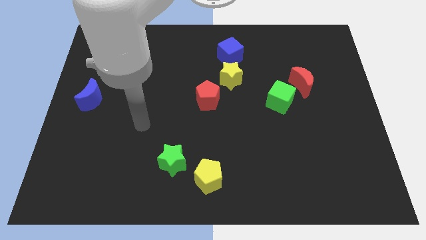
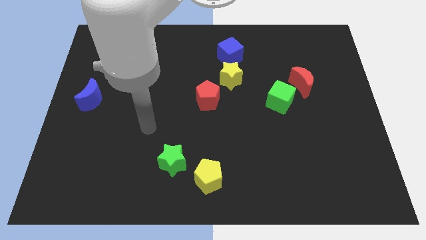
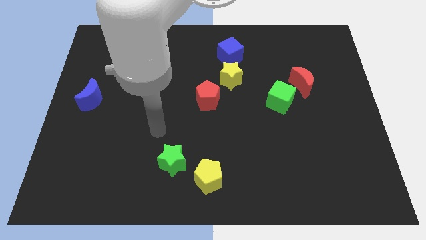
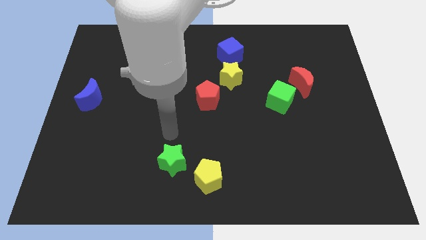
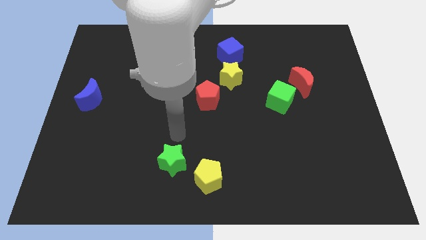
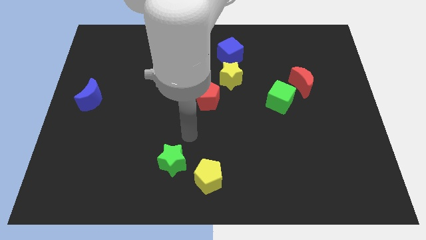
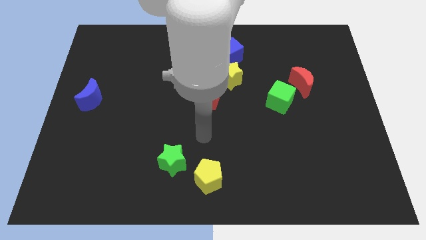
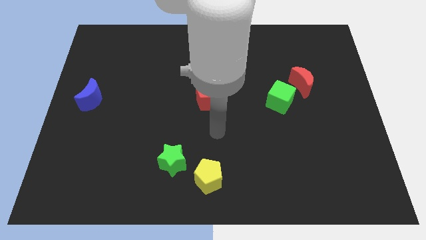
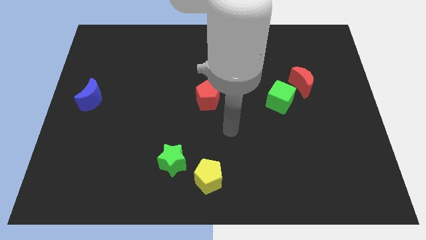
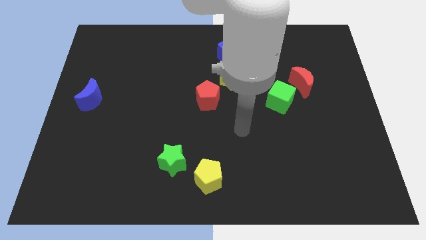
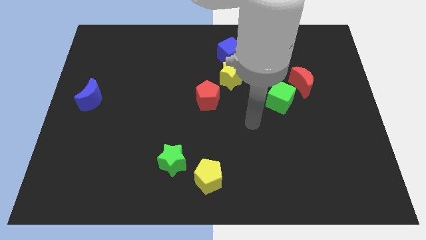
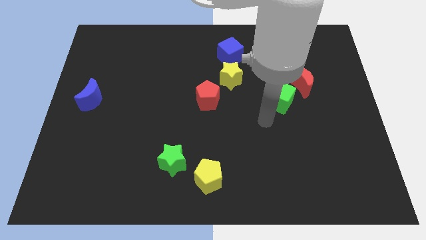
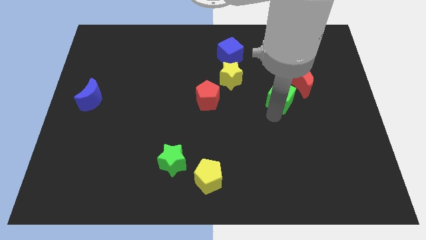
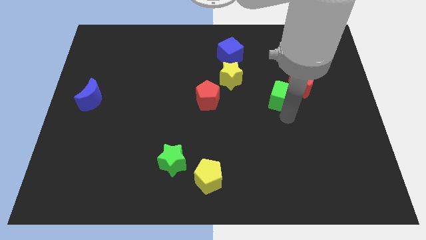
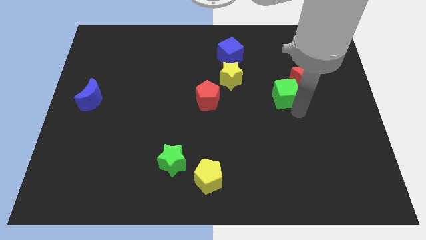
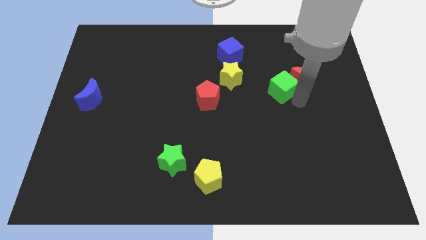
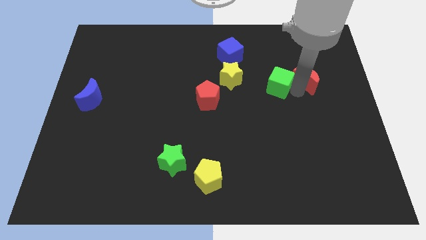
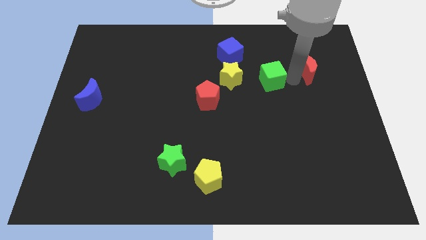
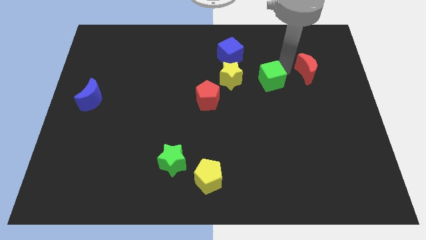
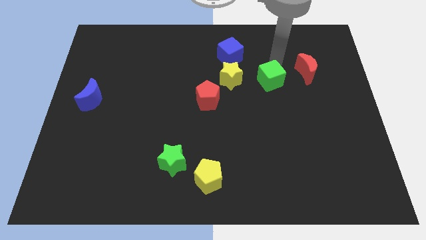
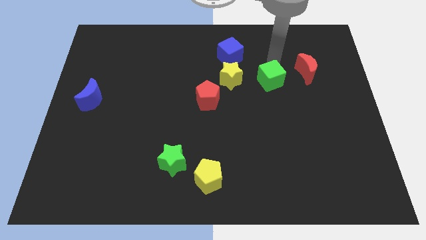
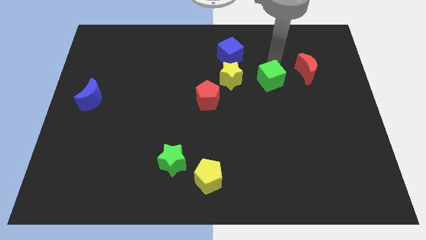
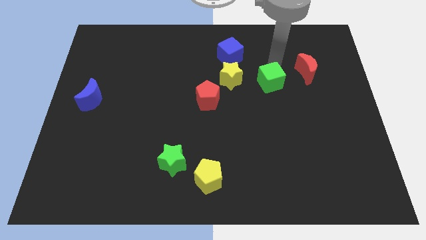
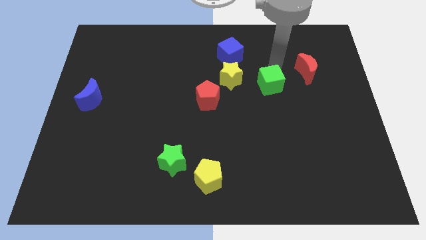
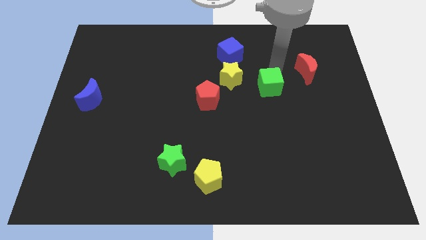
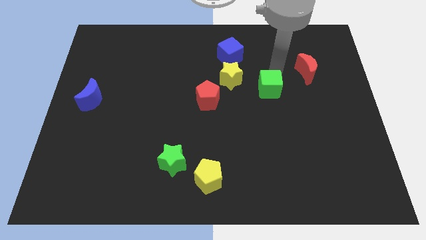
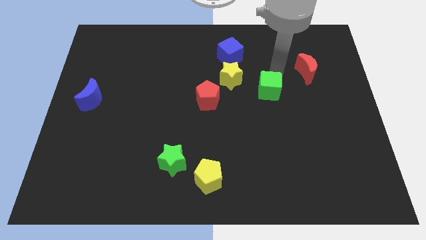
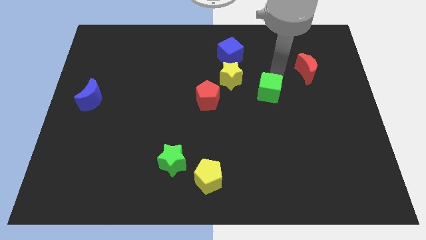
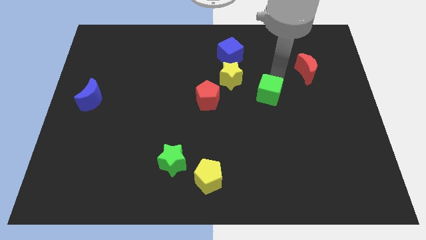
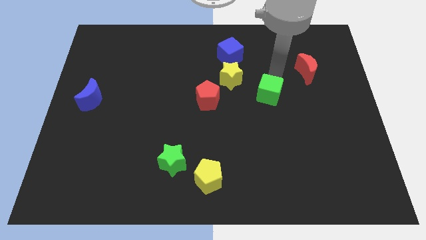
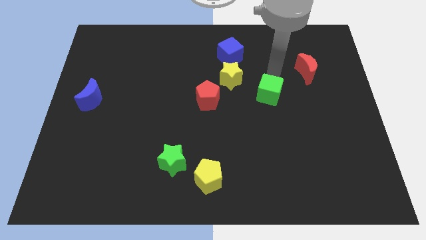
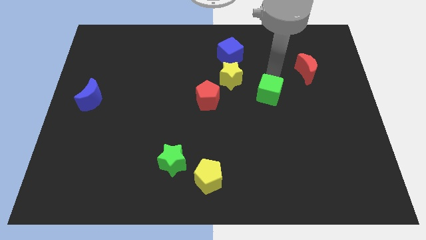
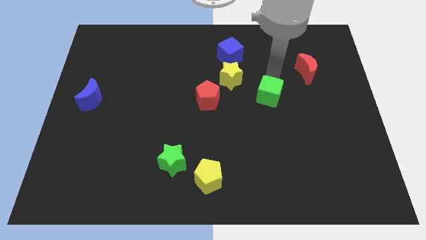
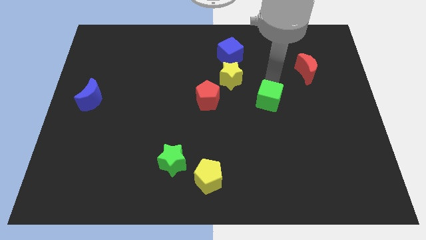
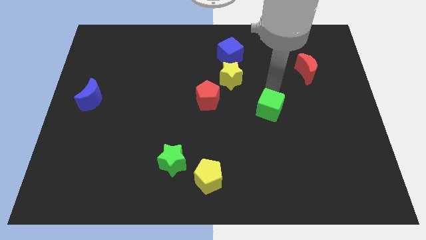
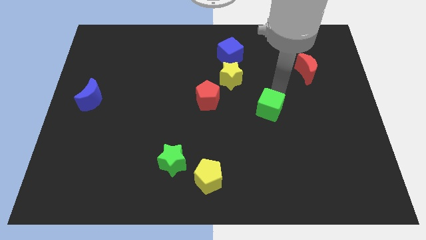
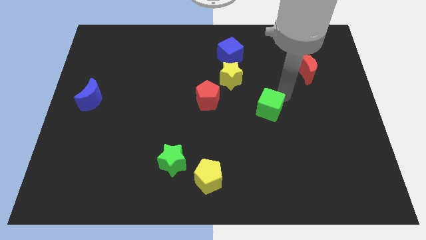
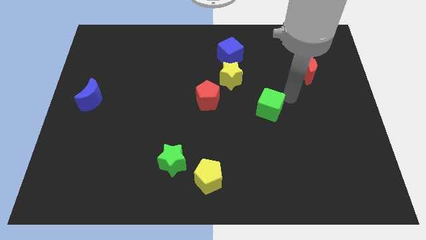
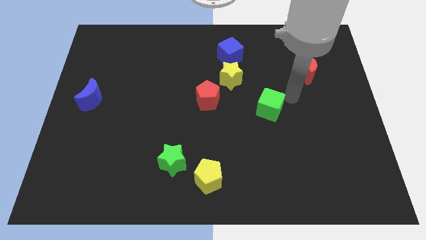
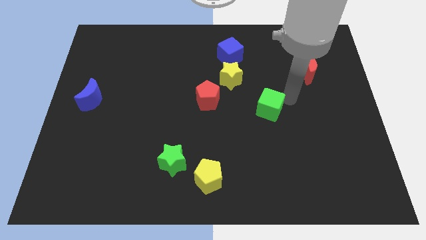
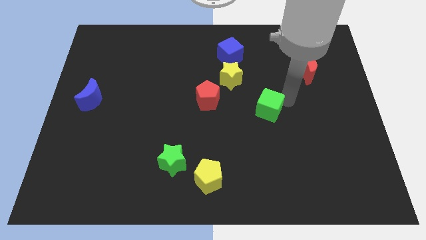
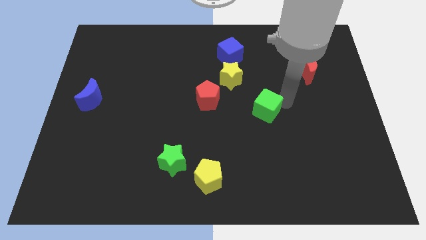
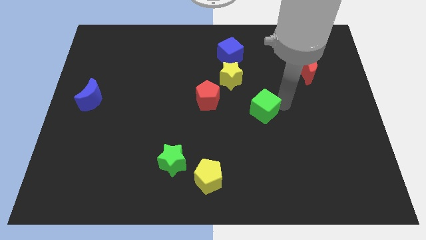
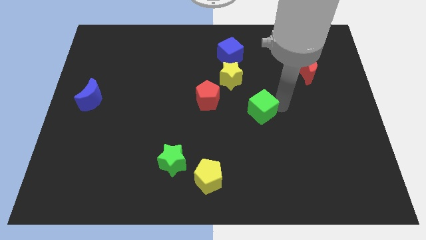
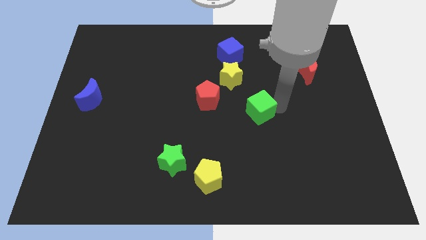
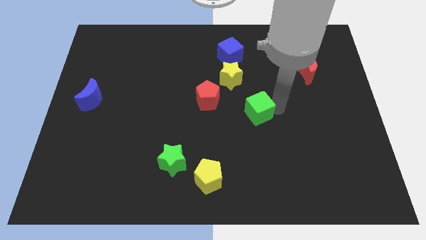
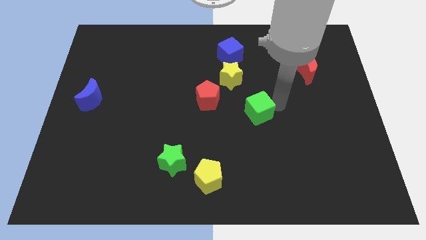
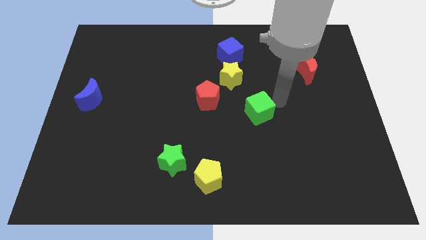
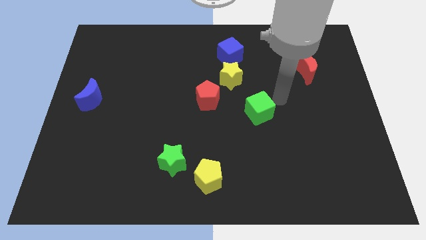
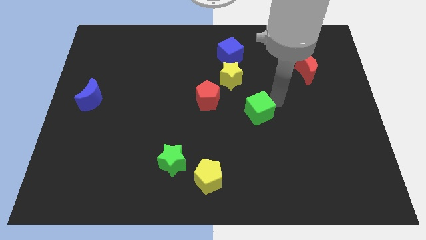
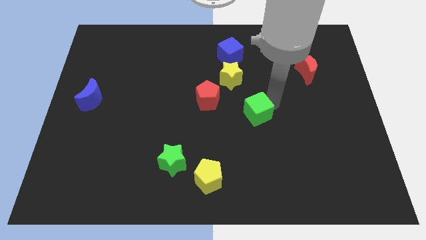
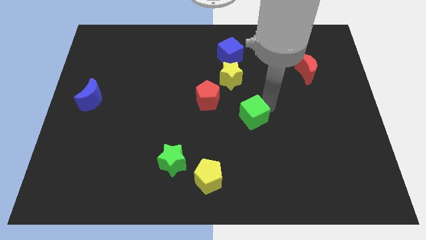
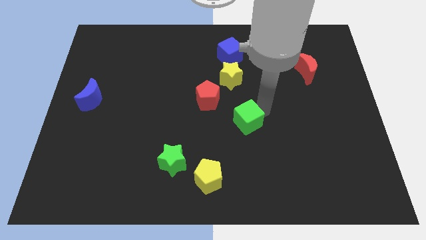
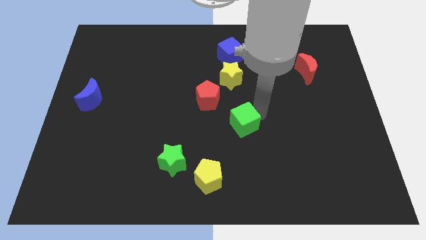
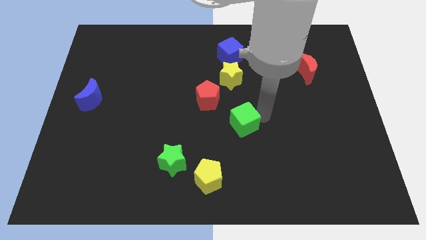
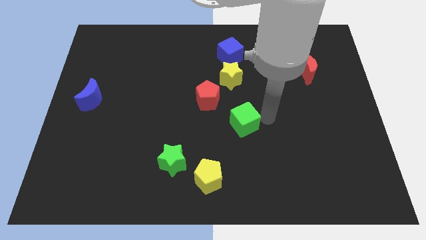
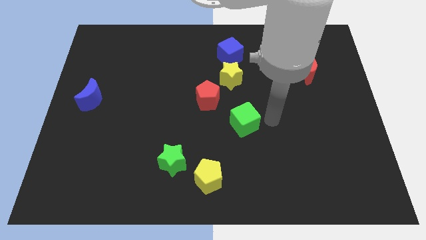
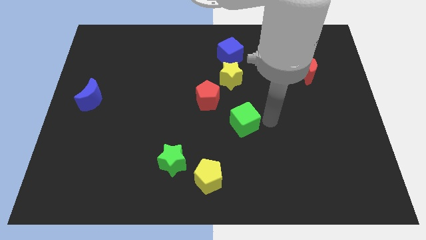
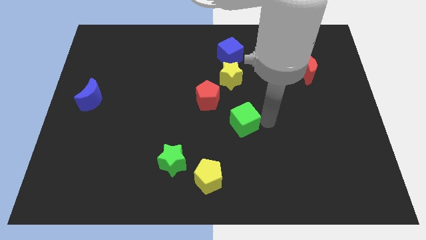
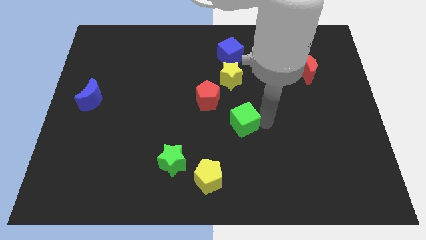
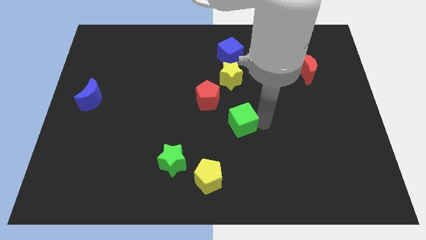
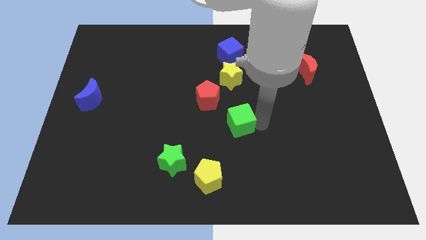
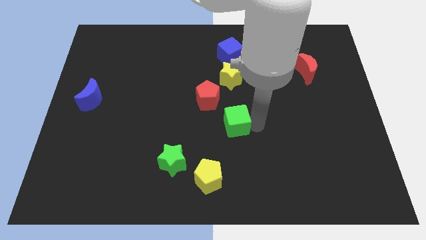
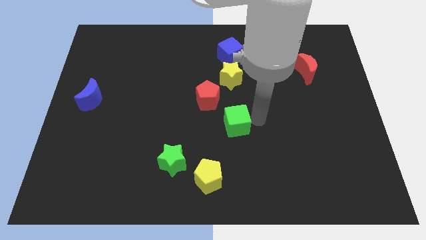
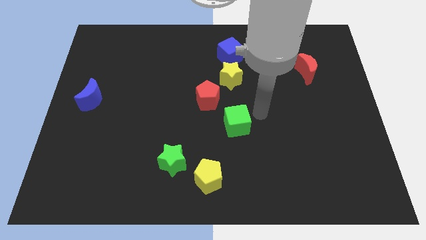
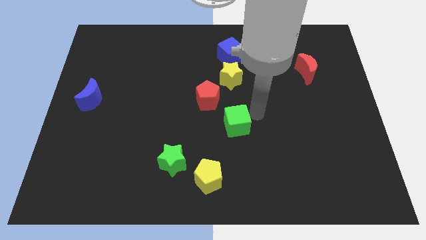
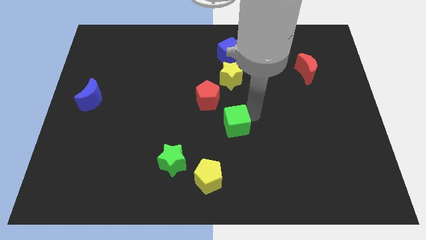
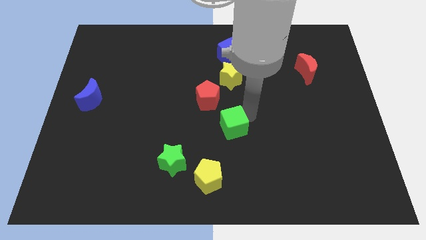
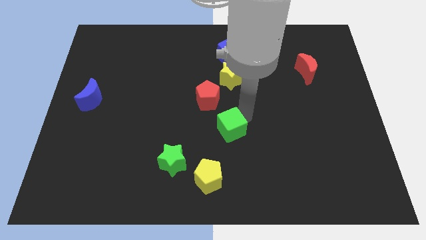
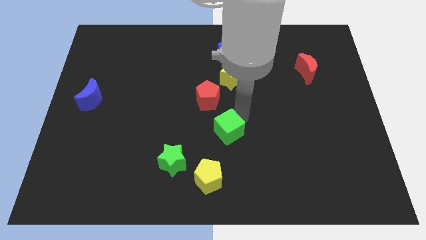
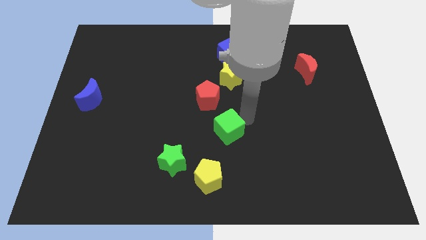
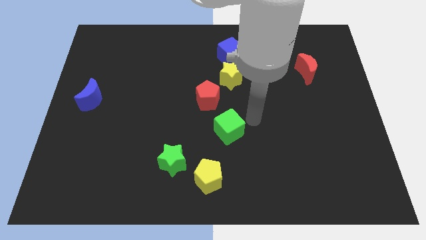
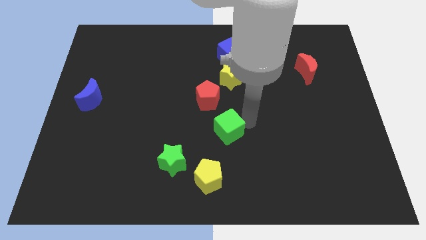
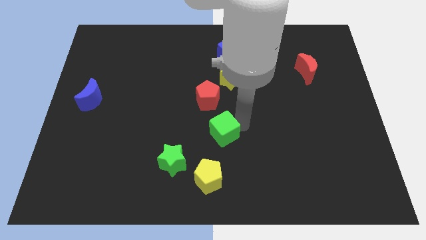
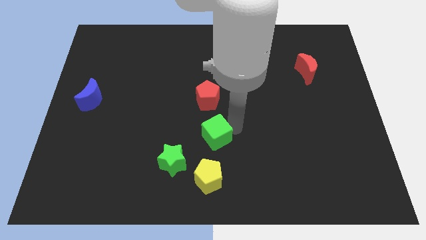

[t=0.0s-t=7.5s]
push the green cube to the top right side of the green star

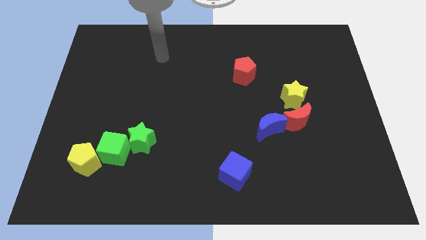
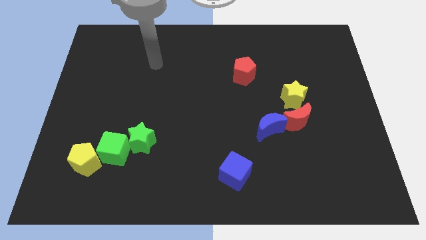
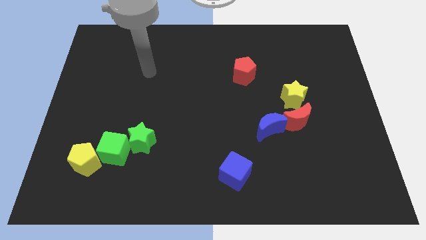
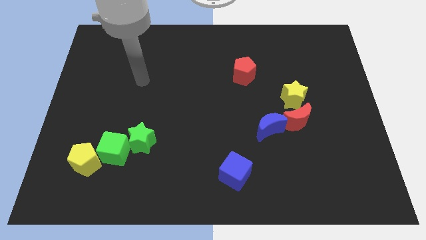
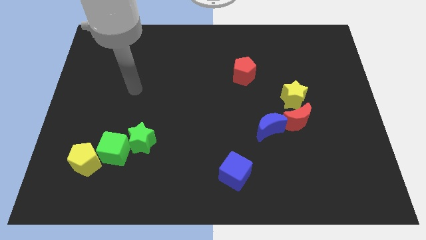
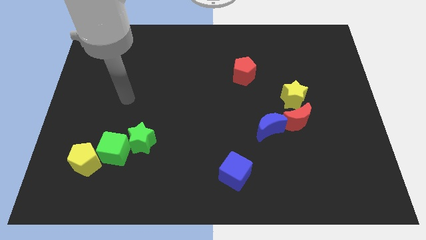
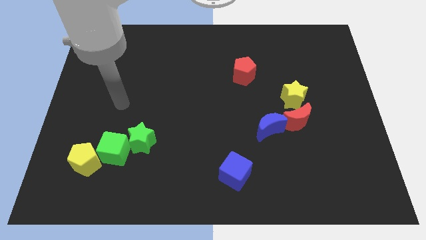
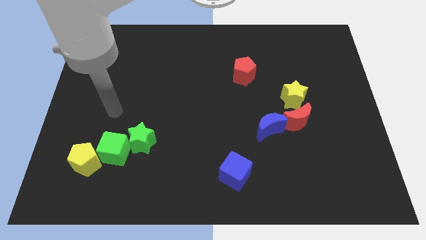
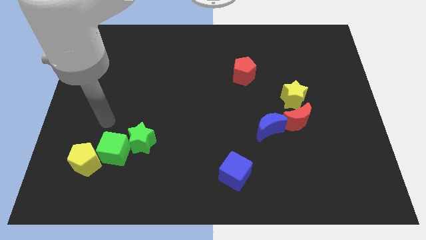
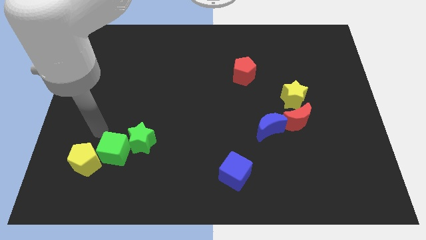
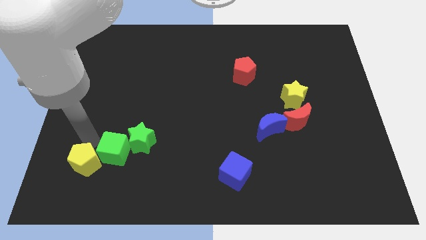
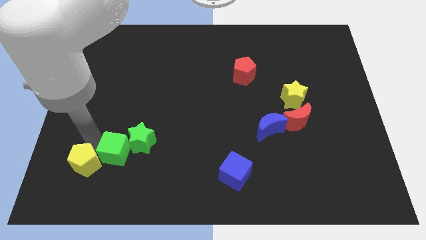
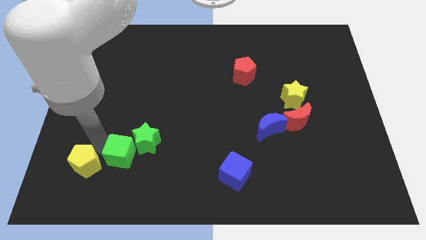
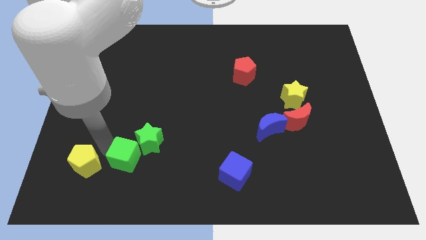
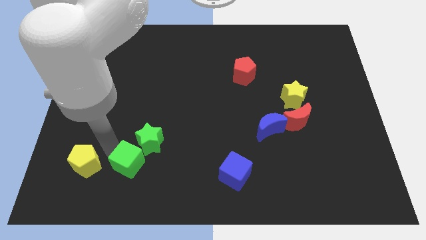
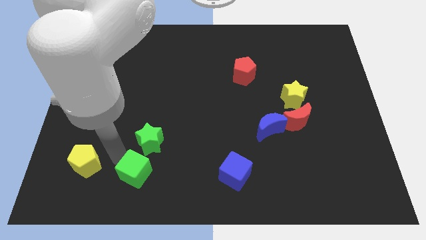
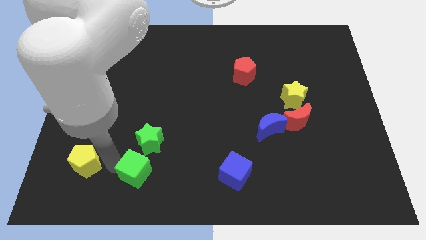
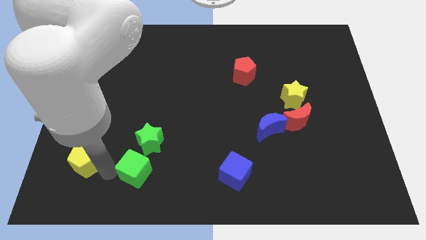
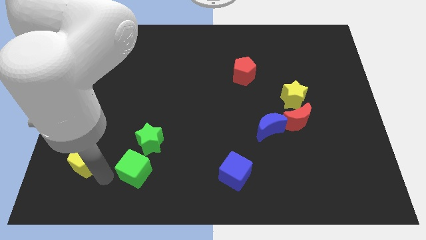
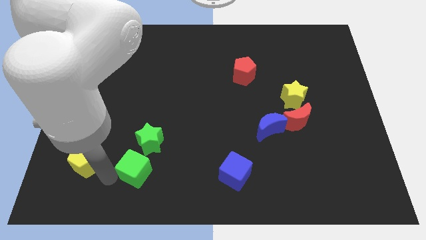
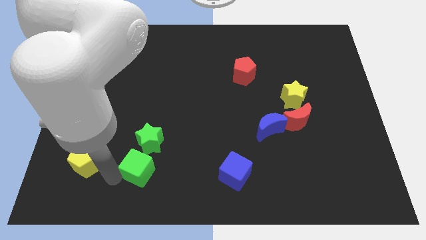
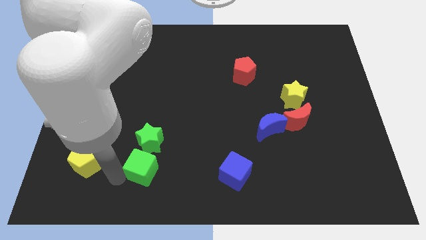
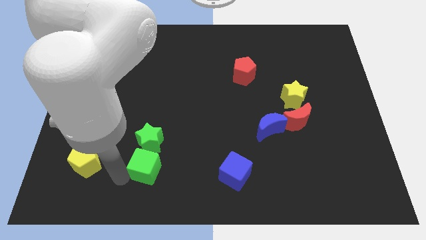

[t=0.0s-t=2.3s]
slide the green cube diagonally down and to the right of the green star
